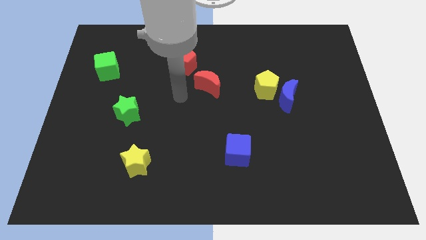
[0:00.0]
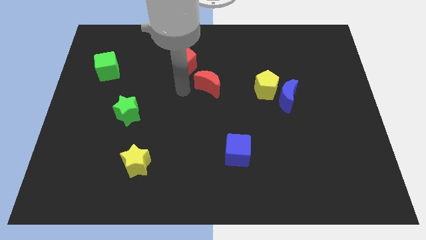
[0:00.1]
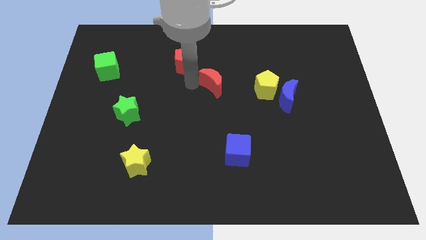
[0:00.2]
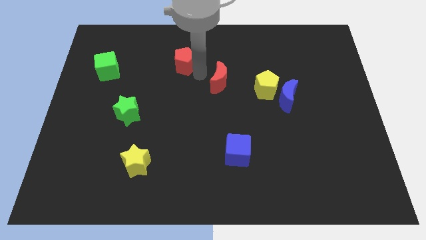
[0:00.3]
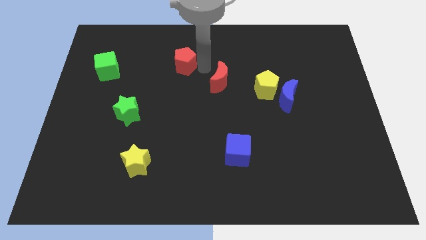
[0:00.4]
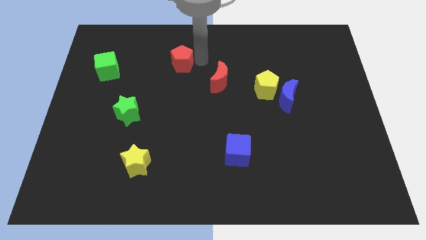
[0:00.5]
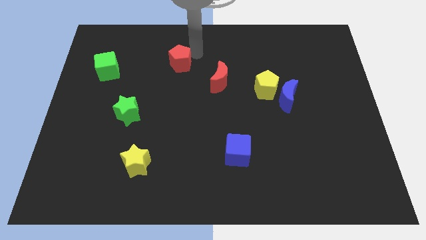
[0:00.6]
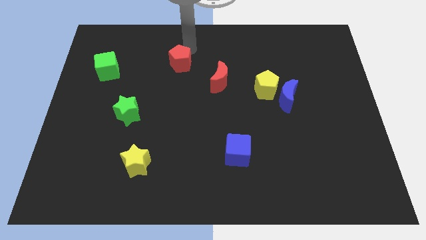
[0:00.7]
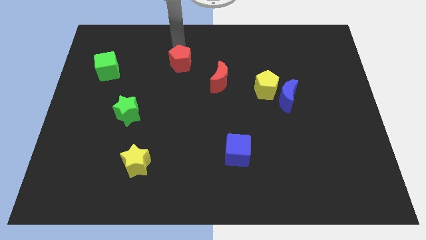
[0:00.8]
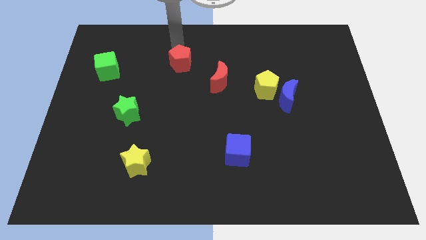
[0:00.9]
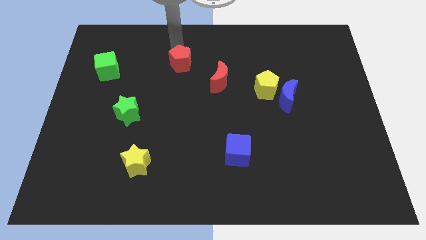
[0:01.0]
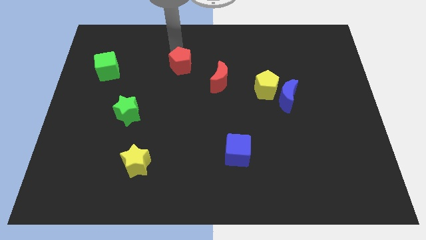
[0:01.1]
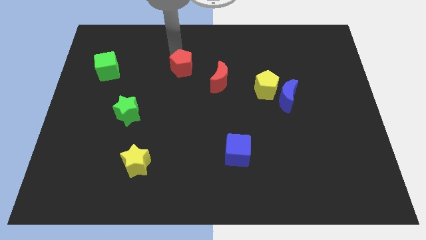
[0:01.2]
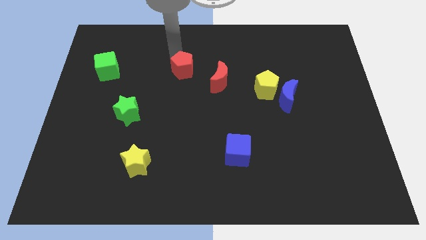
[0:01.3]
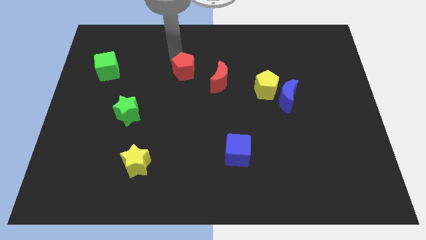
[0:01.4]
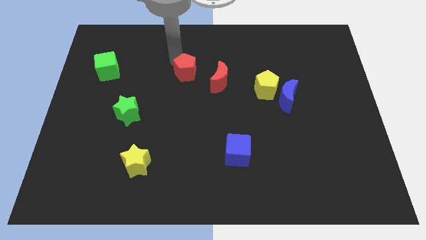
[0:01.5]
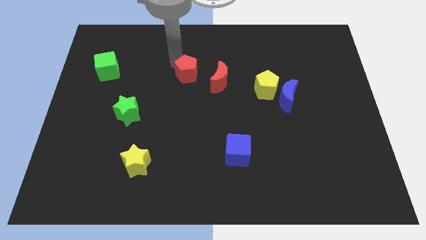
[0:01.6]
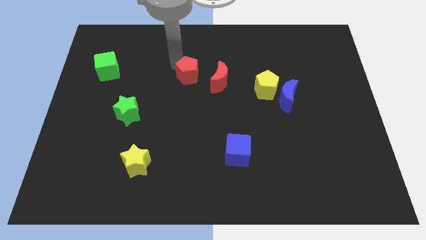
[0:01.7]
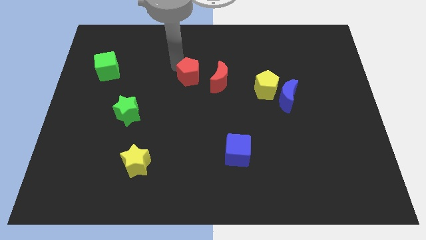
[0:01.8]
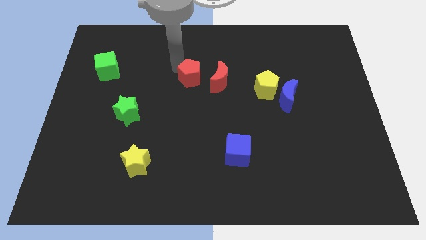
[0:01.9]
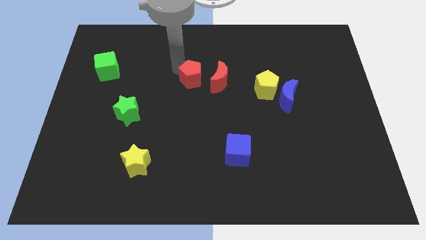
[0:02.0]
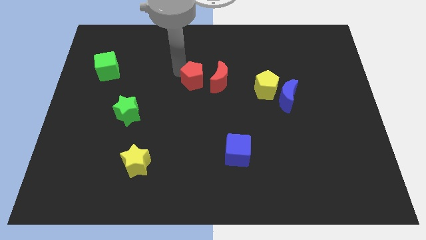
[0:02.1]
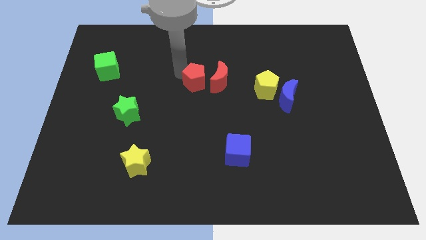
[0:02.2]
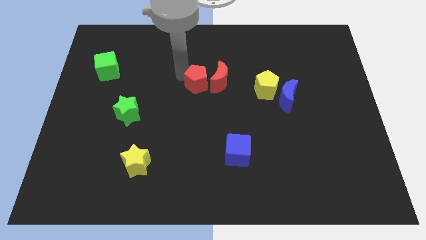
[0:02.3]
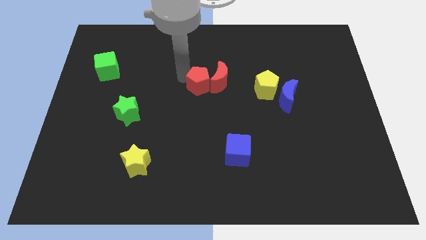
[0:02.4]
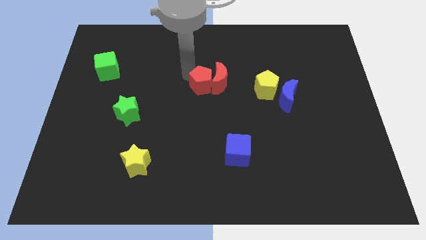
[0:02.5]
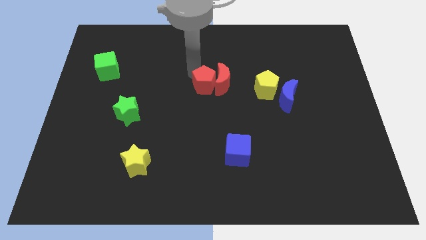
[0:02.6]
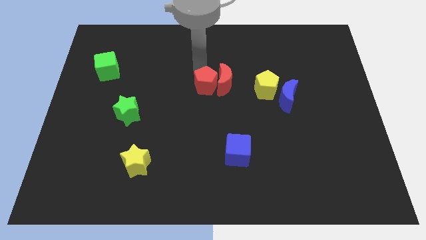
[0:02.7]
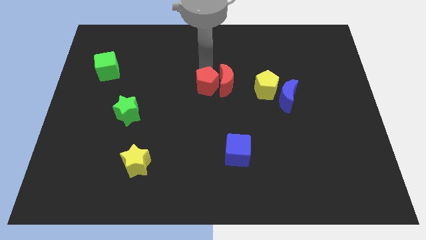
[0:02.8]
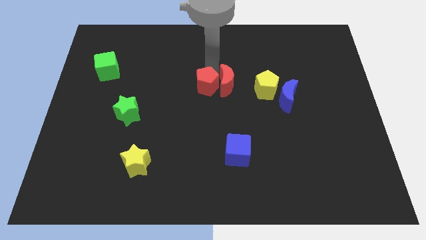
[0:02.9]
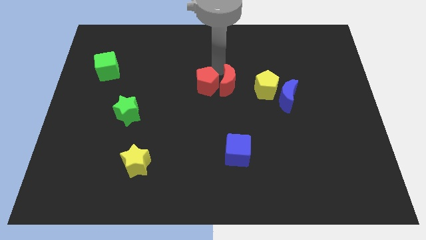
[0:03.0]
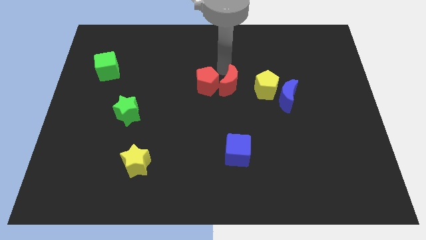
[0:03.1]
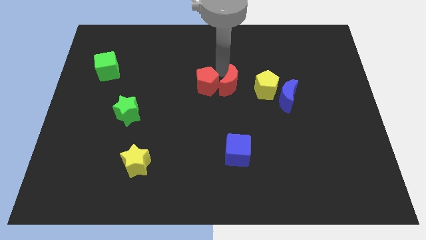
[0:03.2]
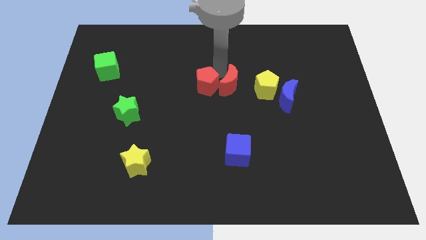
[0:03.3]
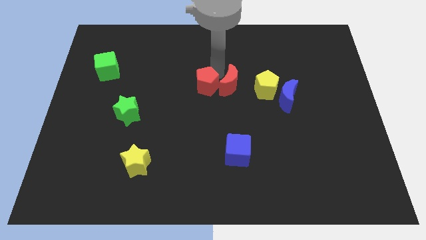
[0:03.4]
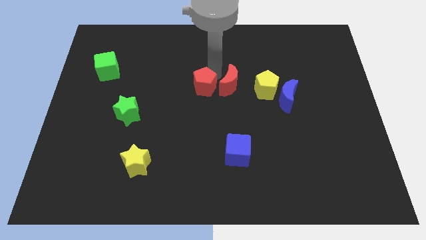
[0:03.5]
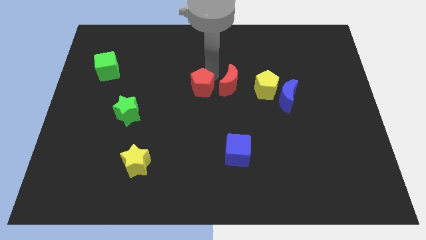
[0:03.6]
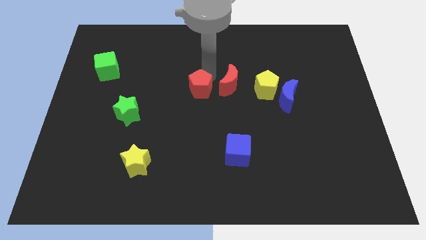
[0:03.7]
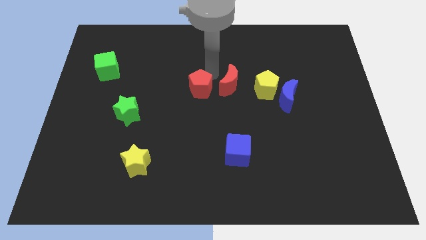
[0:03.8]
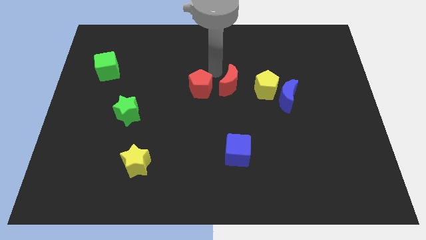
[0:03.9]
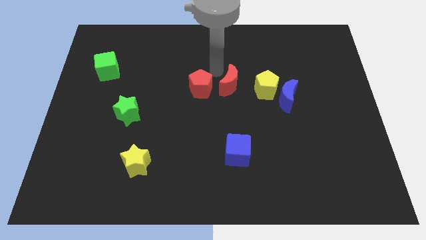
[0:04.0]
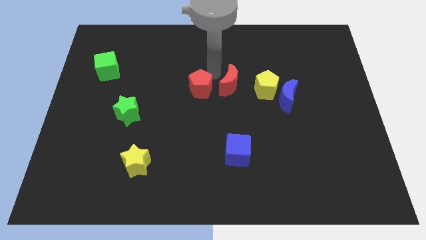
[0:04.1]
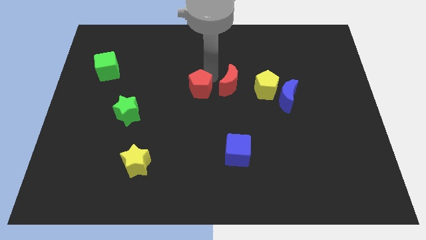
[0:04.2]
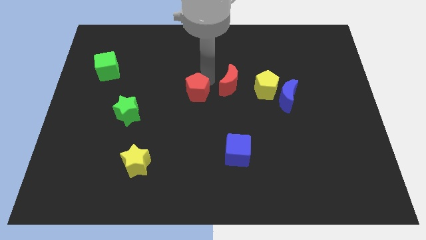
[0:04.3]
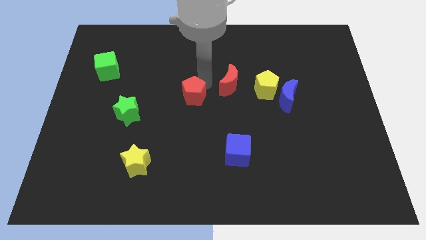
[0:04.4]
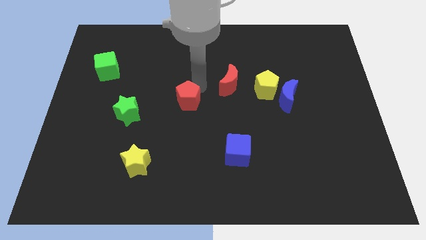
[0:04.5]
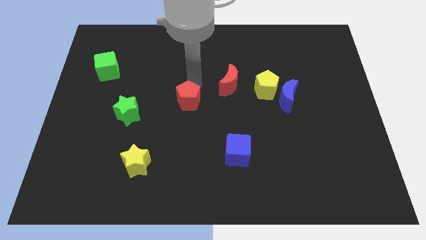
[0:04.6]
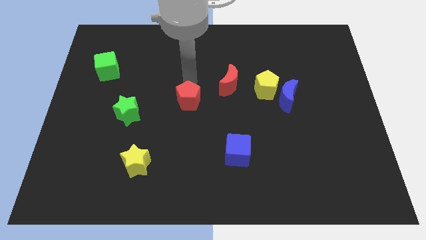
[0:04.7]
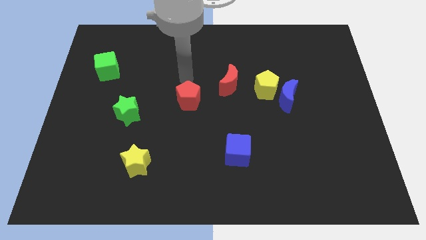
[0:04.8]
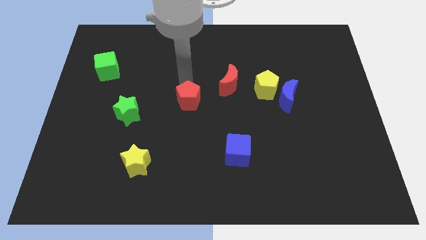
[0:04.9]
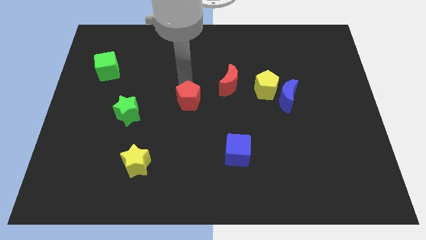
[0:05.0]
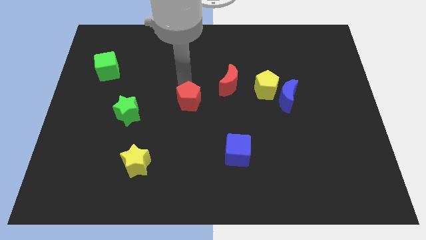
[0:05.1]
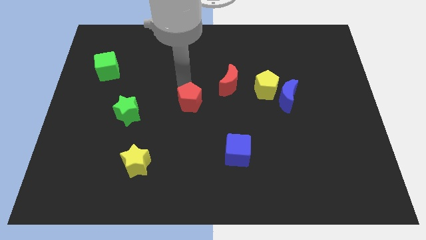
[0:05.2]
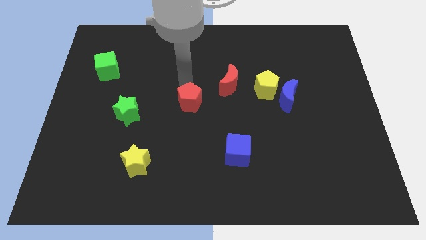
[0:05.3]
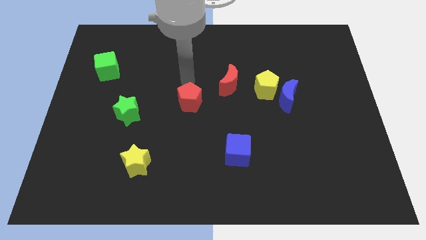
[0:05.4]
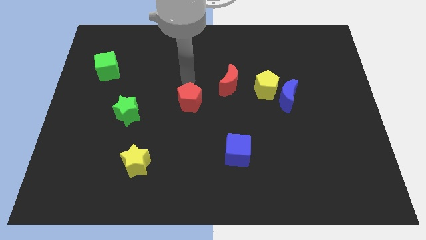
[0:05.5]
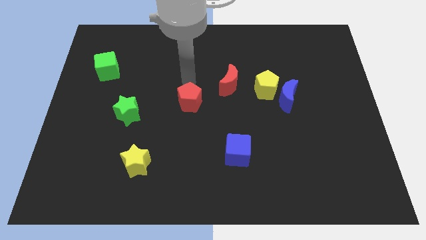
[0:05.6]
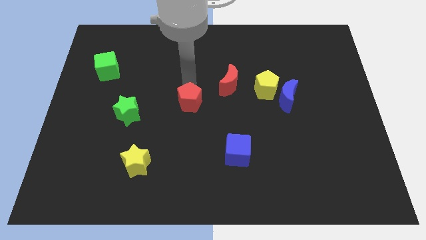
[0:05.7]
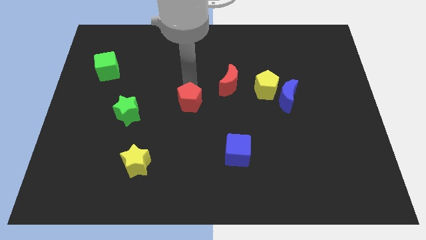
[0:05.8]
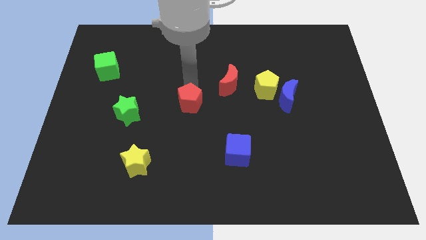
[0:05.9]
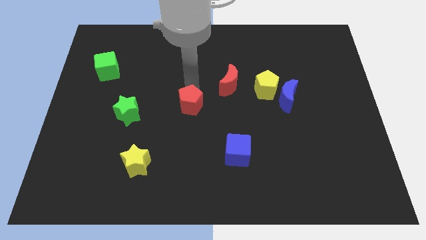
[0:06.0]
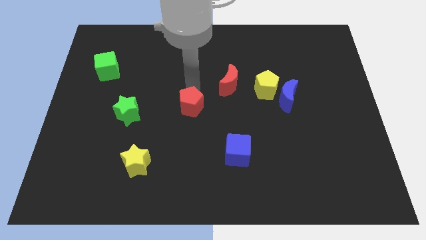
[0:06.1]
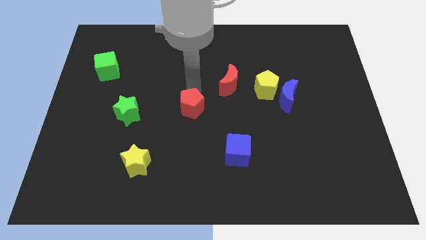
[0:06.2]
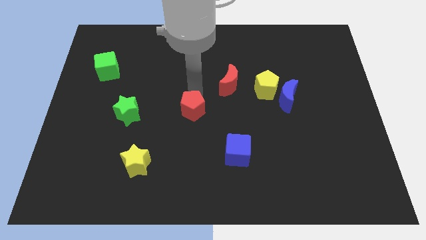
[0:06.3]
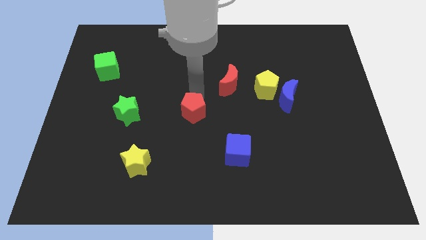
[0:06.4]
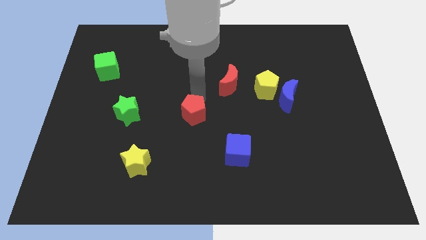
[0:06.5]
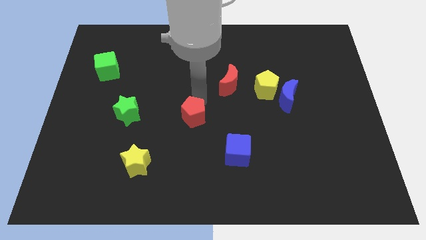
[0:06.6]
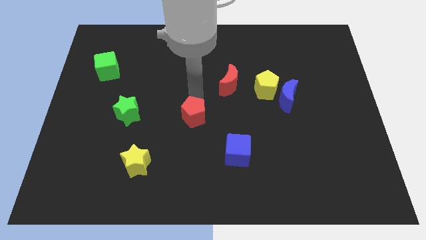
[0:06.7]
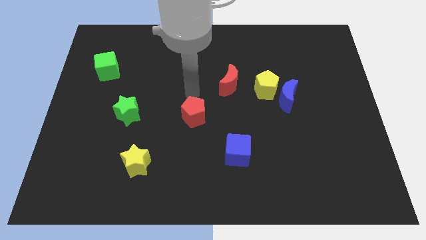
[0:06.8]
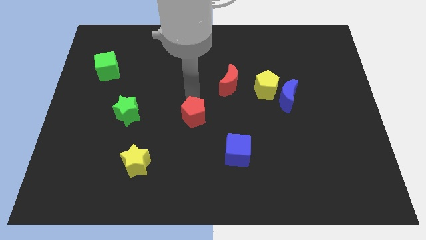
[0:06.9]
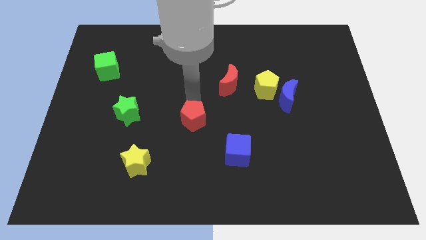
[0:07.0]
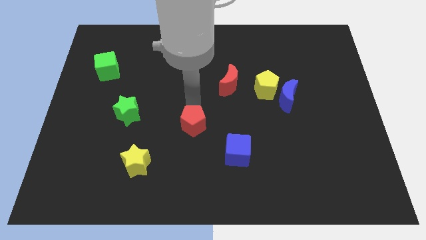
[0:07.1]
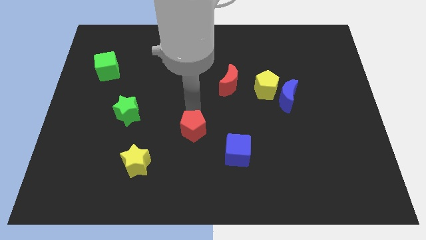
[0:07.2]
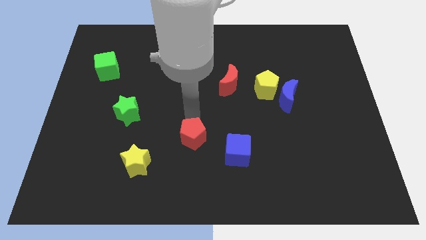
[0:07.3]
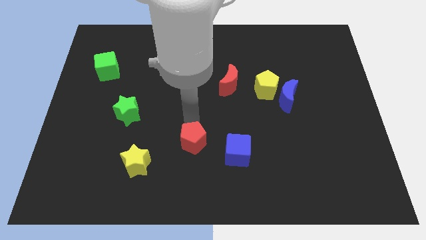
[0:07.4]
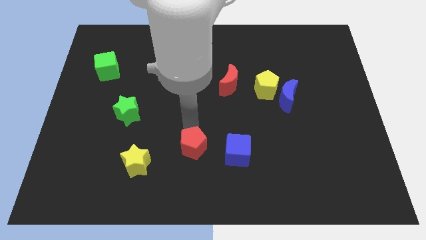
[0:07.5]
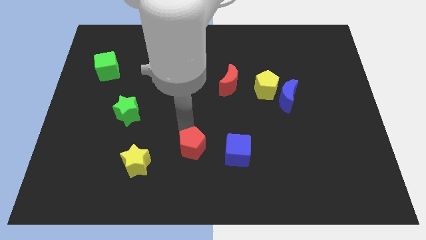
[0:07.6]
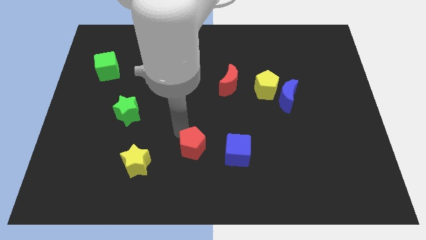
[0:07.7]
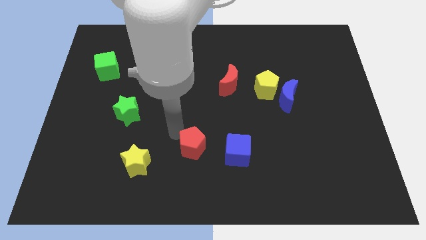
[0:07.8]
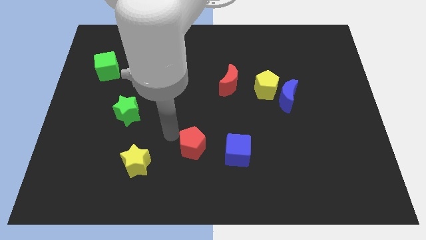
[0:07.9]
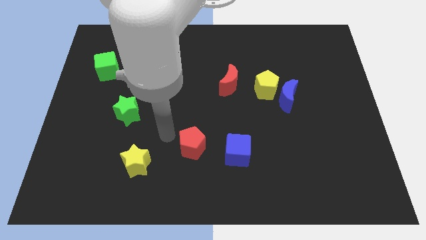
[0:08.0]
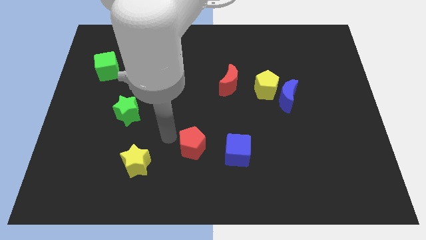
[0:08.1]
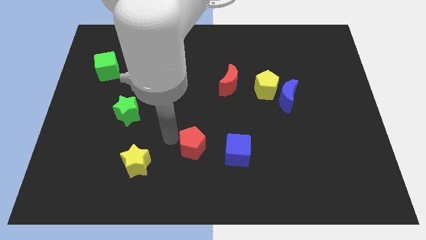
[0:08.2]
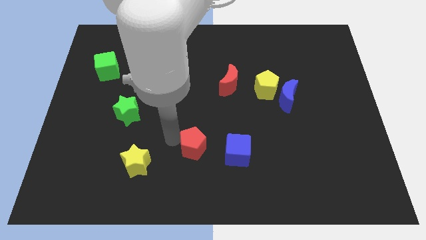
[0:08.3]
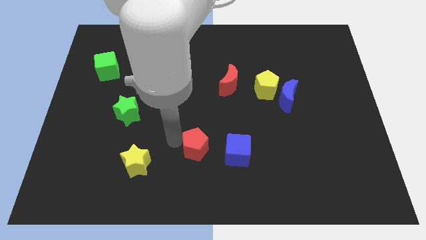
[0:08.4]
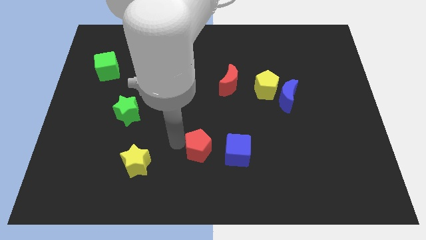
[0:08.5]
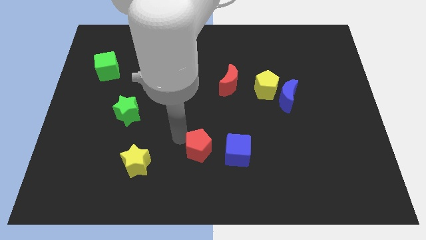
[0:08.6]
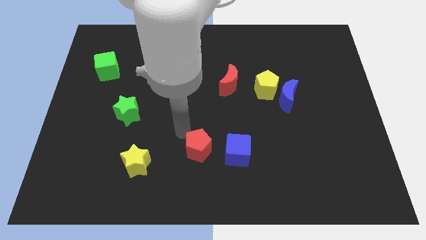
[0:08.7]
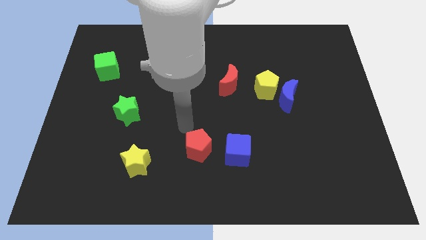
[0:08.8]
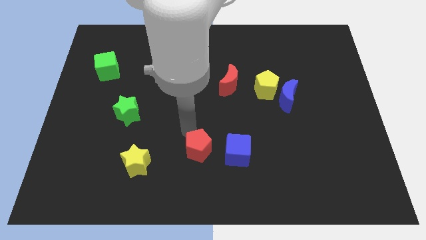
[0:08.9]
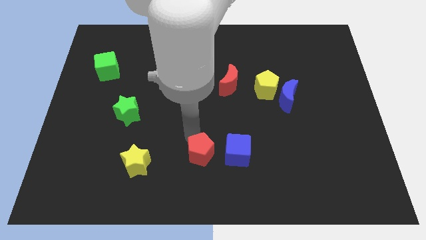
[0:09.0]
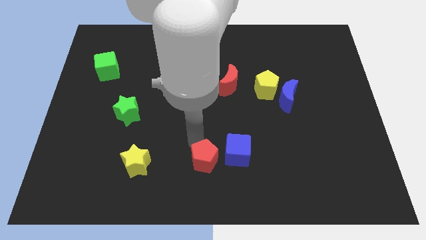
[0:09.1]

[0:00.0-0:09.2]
push the red pentagon to the bottom
